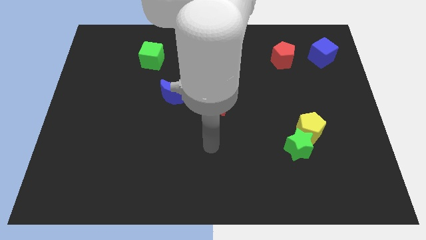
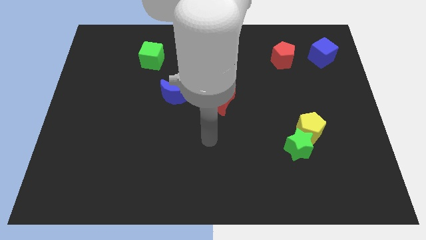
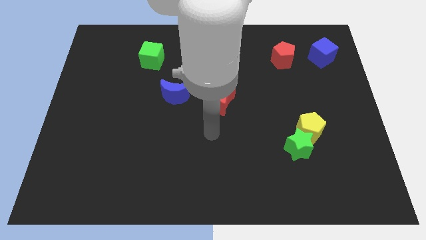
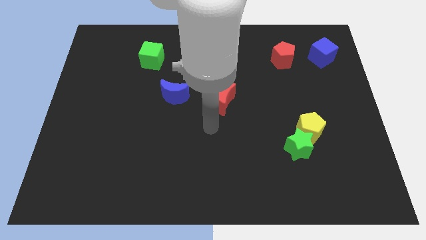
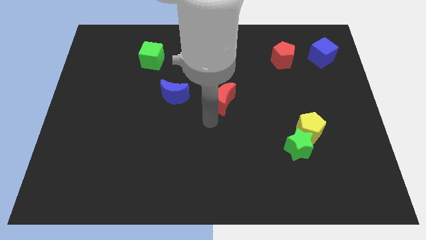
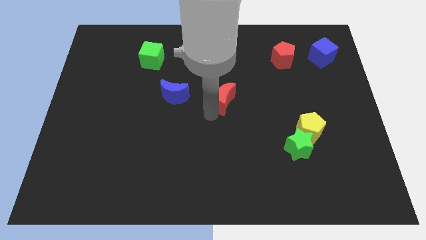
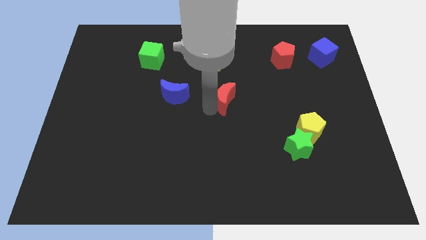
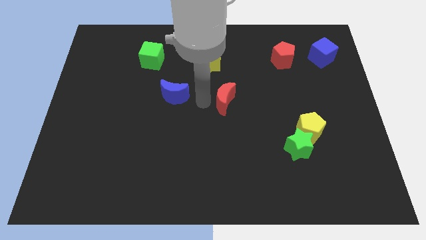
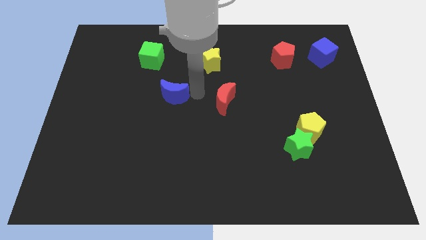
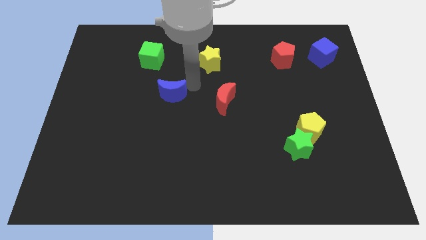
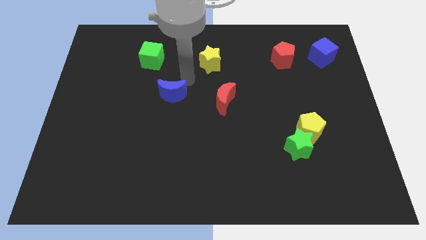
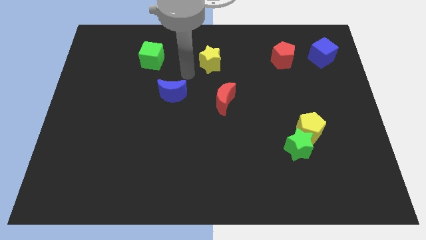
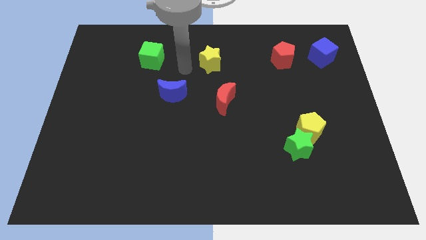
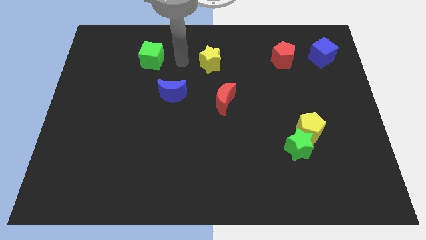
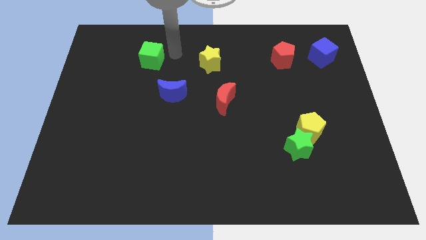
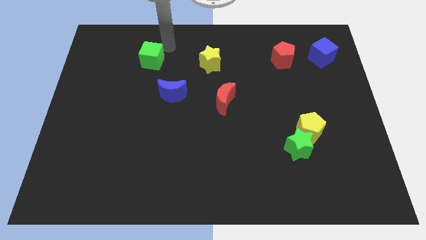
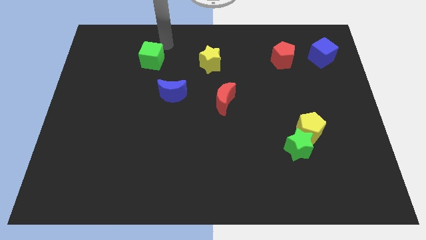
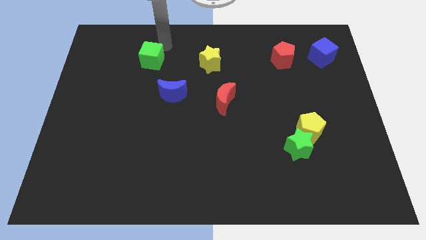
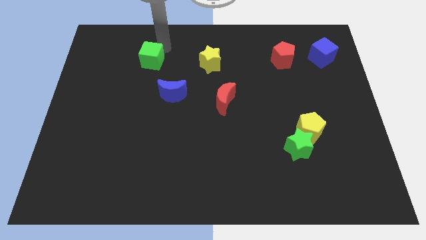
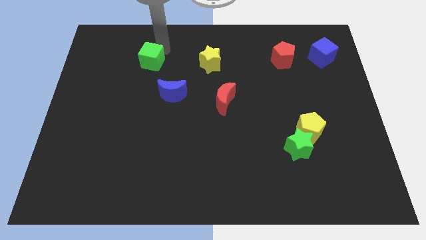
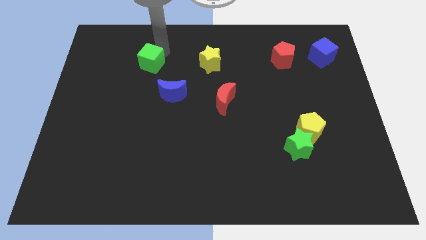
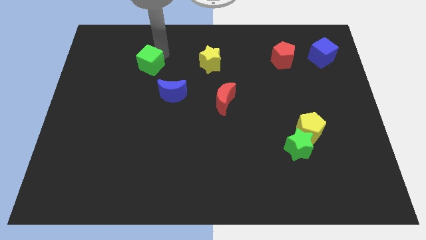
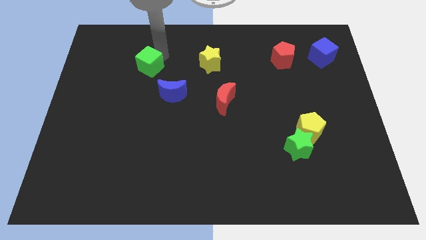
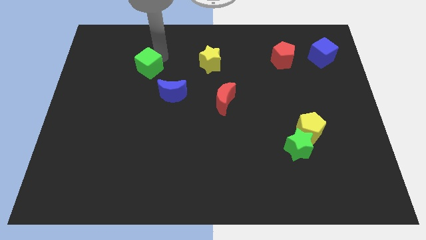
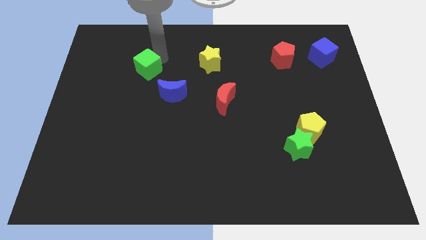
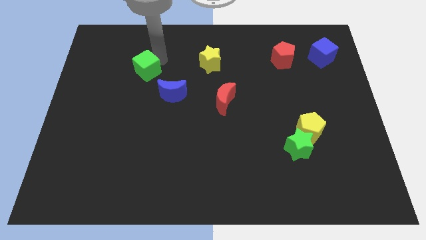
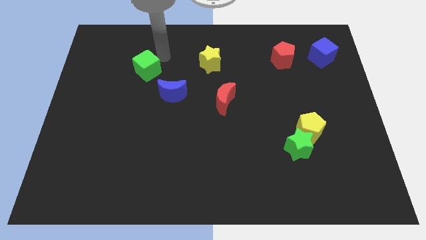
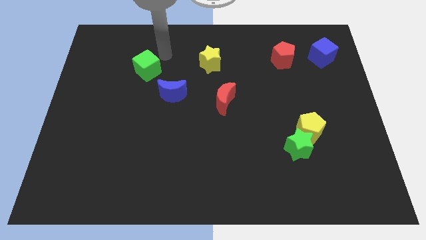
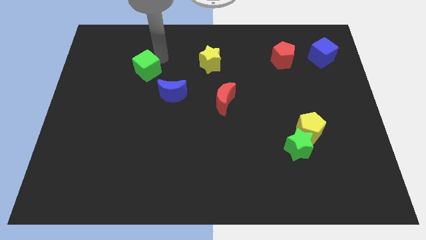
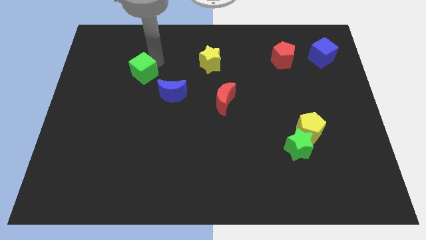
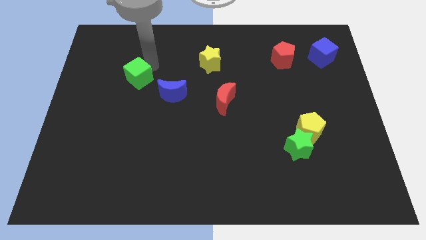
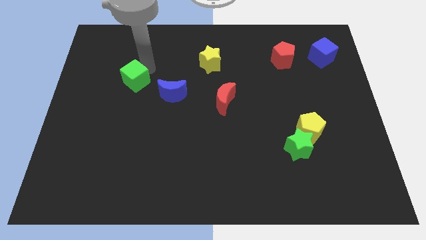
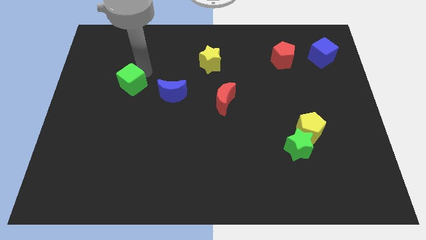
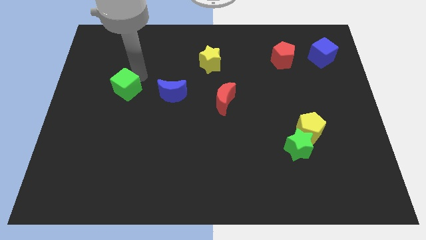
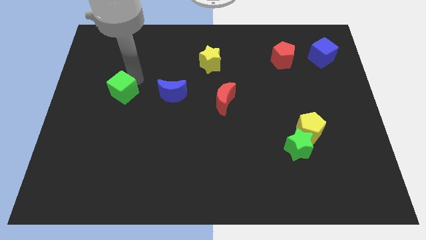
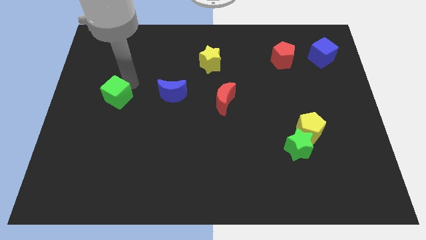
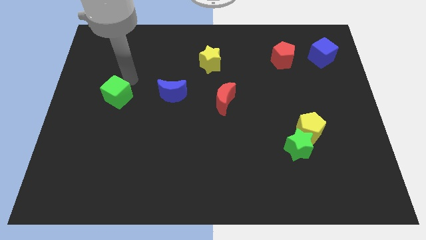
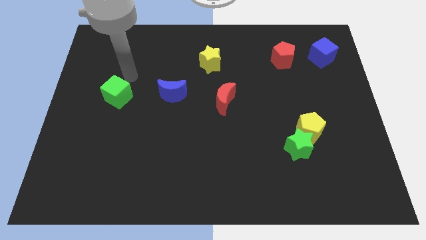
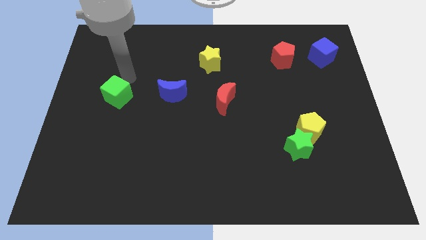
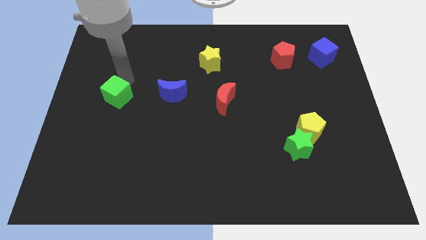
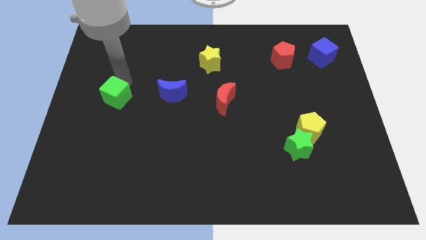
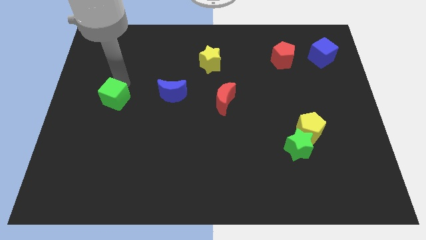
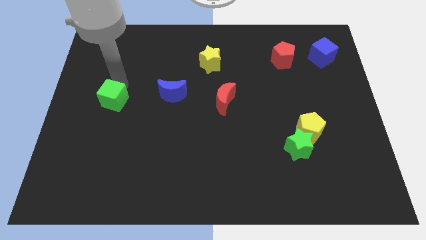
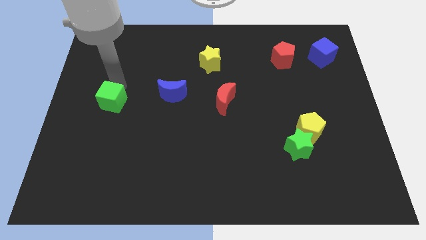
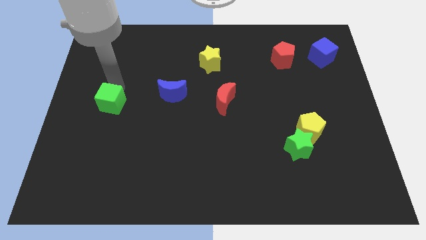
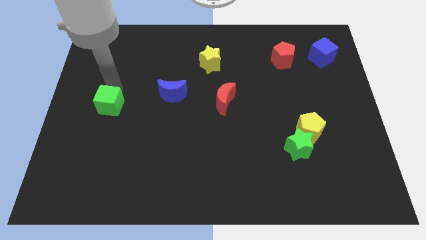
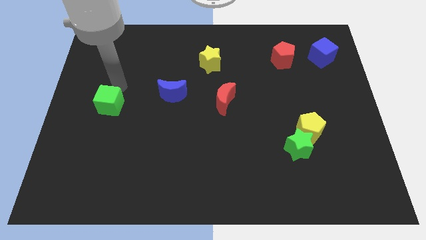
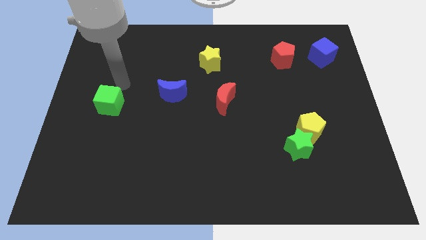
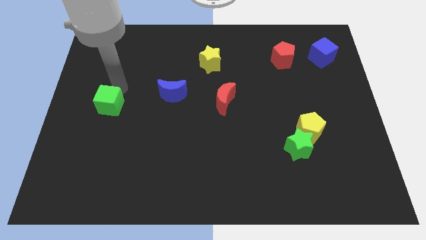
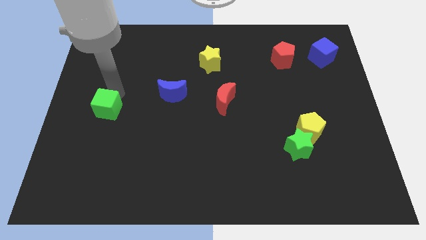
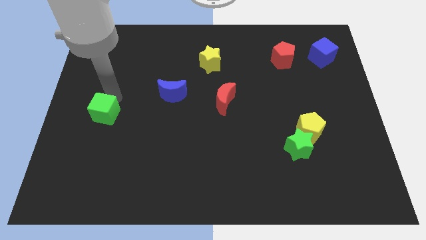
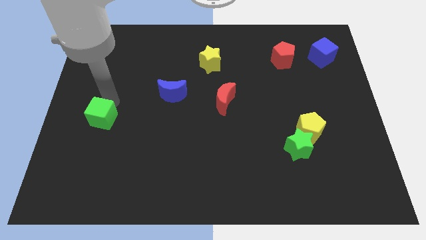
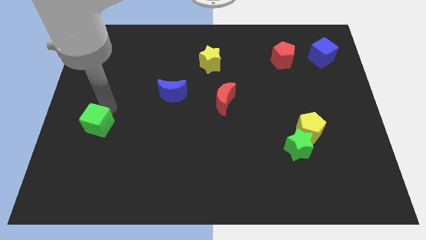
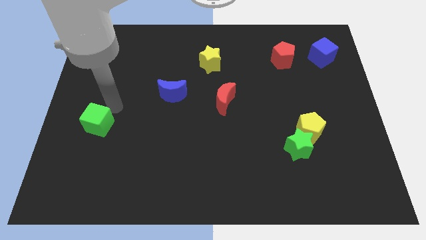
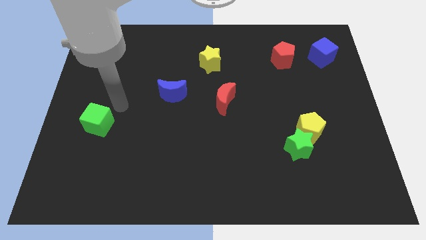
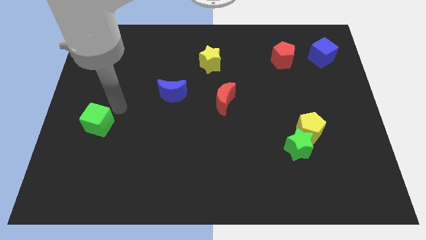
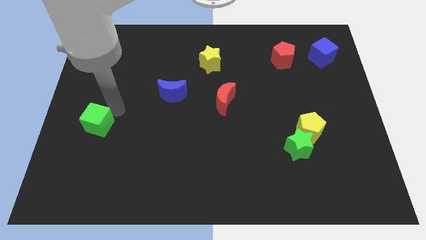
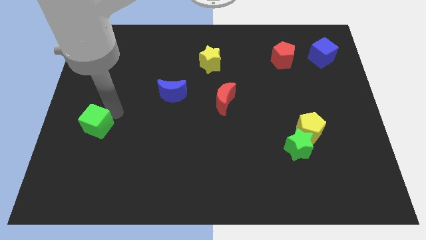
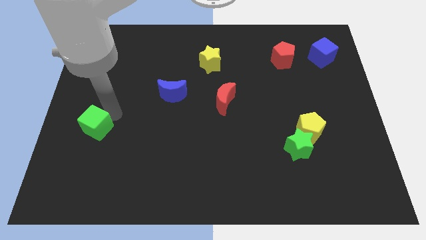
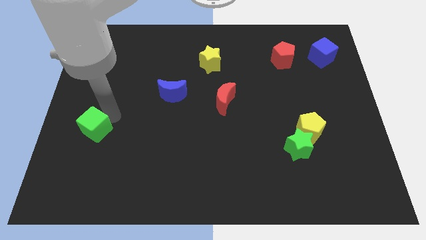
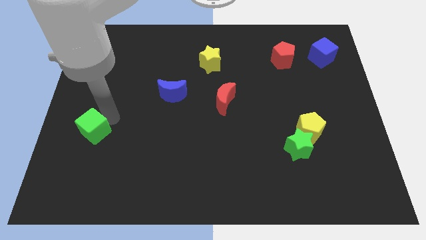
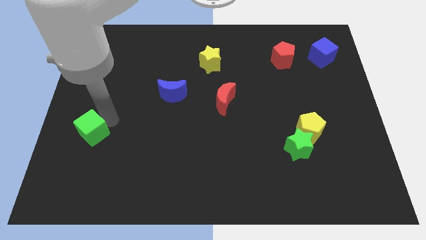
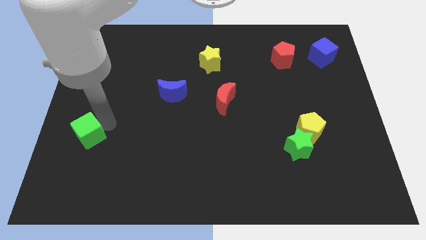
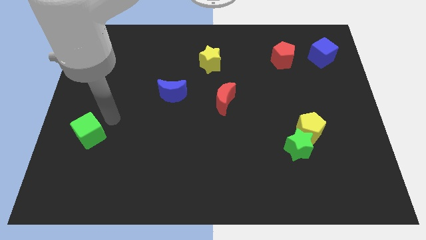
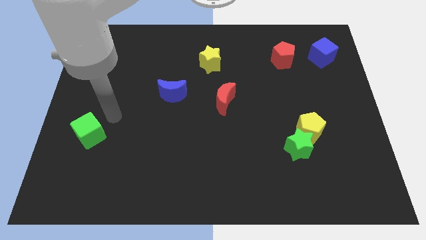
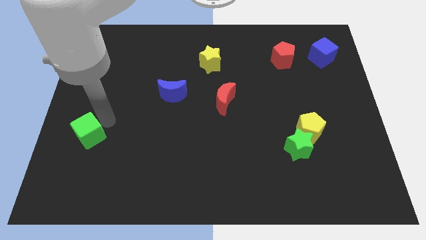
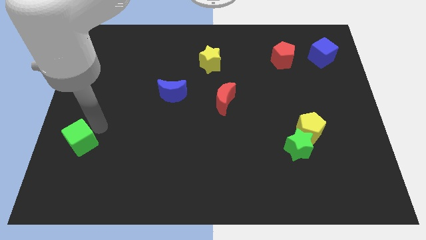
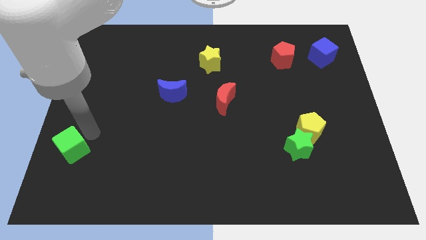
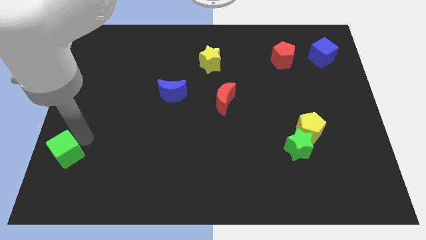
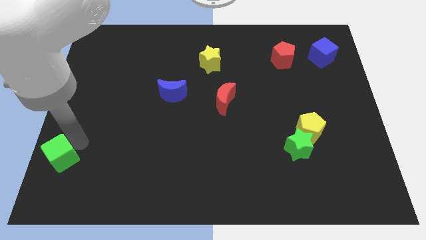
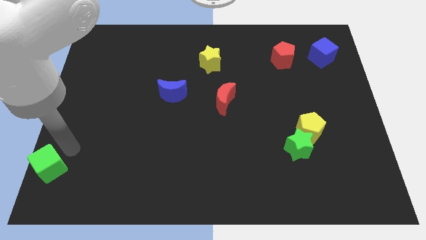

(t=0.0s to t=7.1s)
put the green cube to the lower left corner
